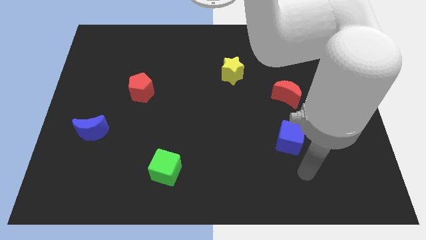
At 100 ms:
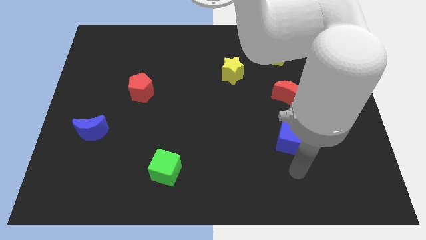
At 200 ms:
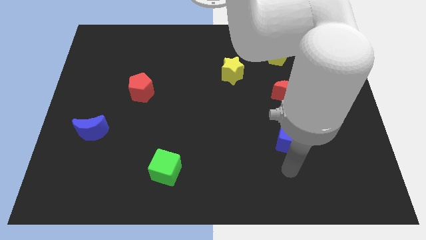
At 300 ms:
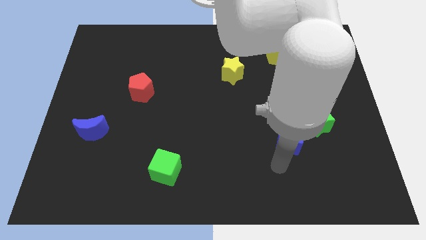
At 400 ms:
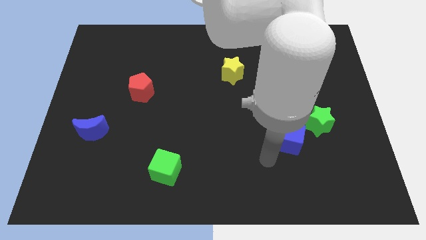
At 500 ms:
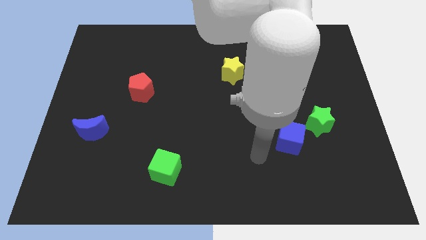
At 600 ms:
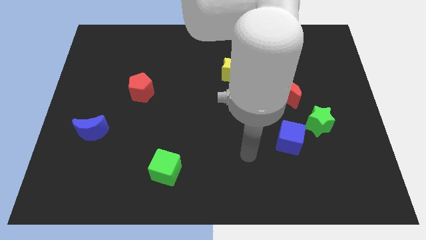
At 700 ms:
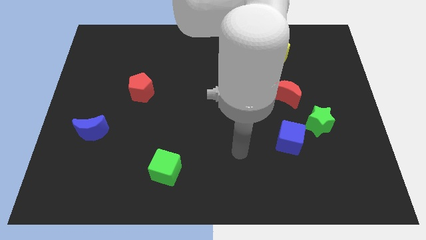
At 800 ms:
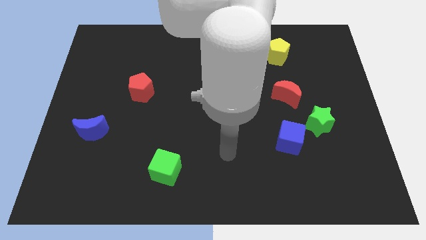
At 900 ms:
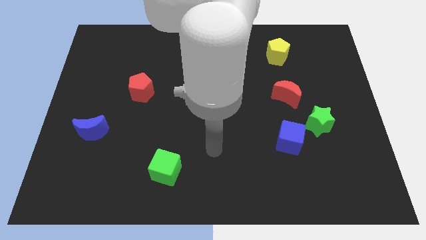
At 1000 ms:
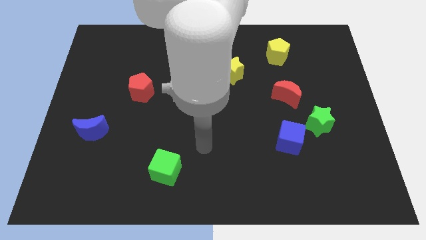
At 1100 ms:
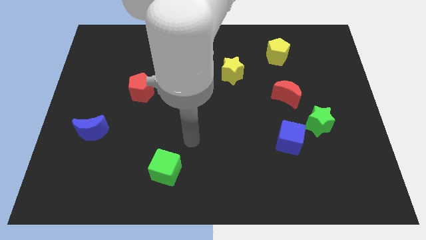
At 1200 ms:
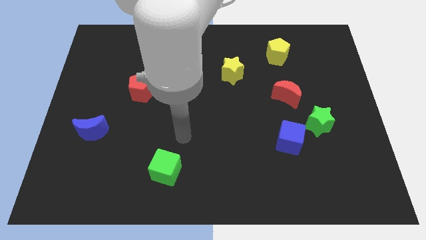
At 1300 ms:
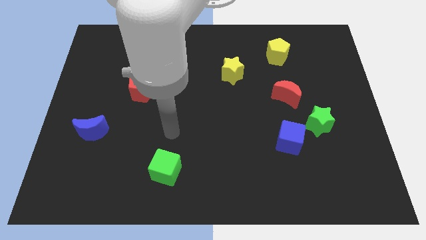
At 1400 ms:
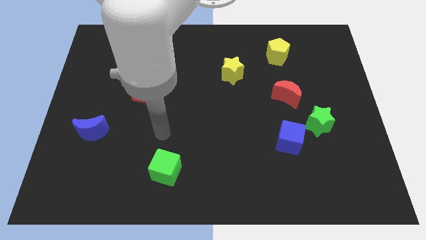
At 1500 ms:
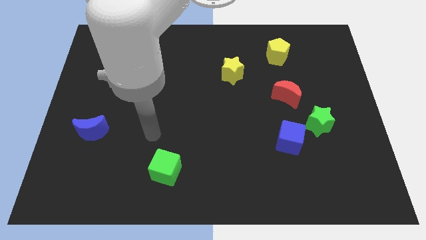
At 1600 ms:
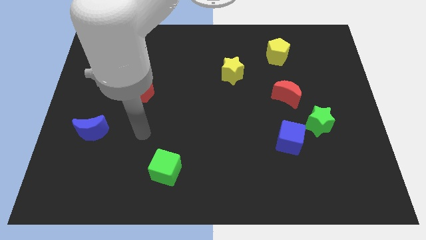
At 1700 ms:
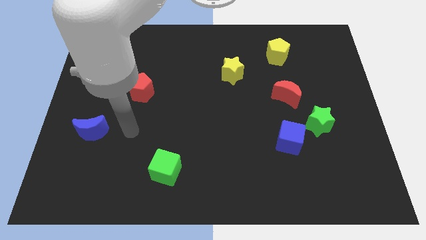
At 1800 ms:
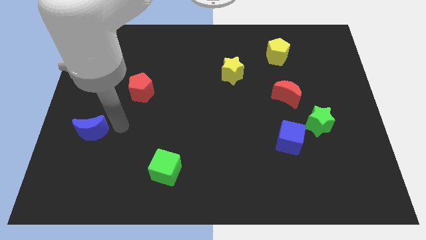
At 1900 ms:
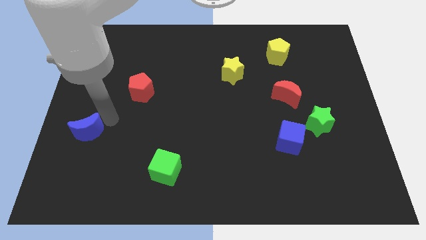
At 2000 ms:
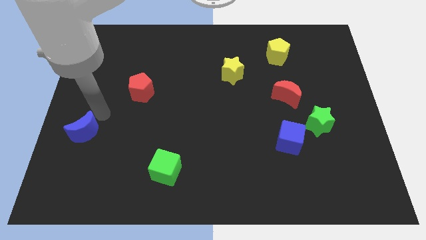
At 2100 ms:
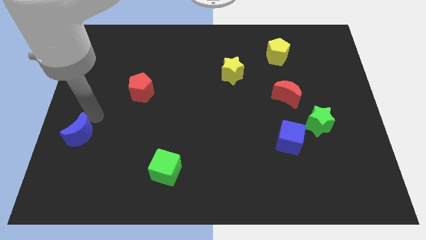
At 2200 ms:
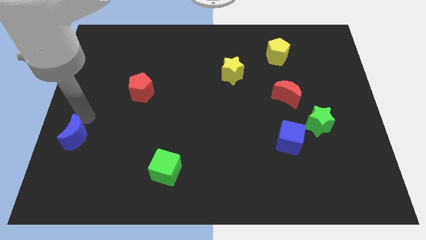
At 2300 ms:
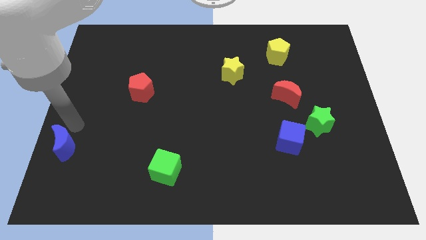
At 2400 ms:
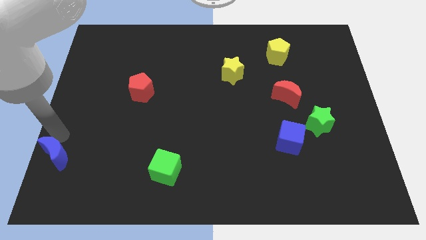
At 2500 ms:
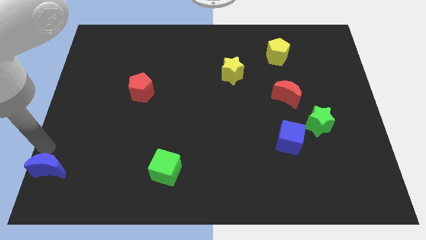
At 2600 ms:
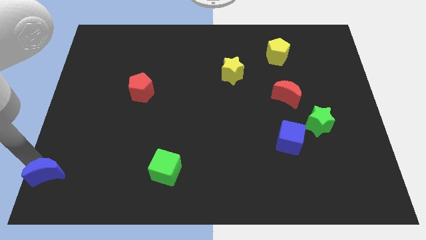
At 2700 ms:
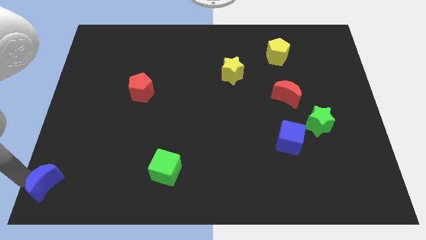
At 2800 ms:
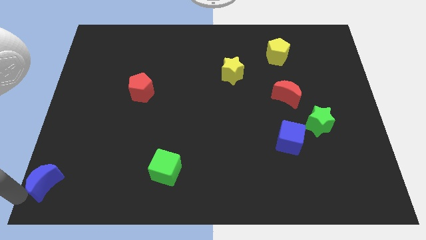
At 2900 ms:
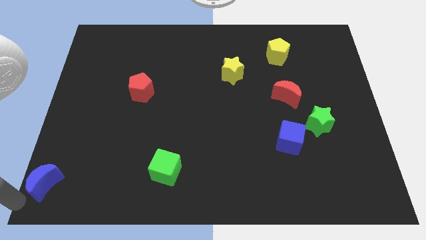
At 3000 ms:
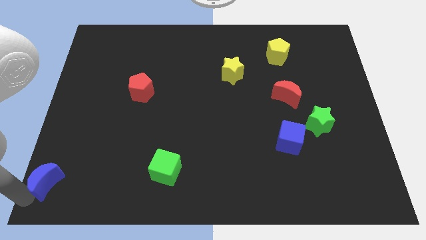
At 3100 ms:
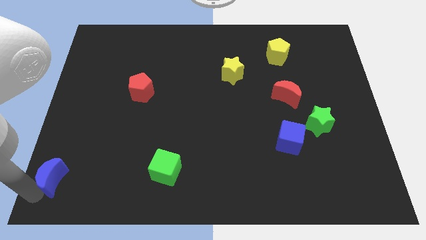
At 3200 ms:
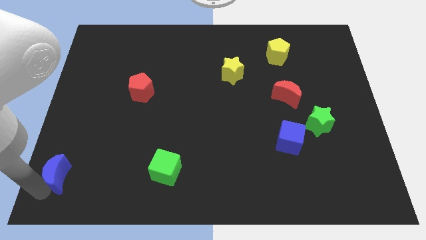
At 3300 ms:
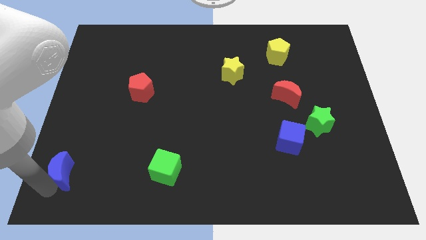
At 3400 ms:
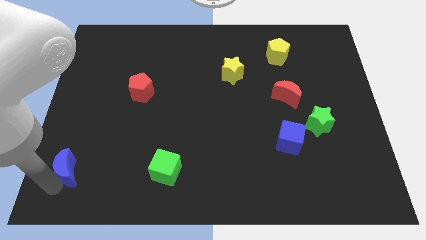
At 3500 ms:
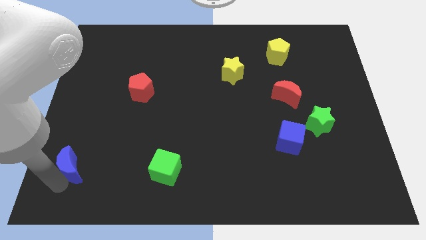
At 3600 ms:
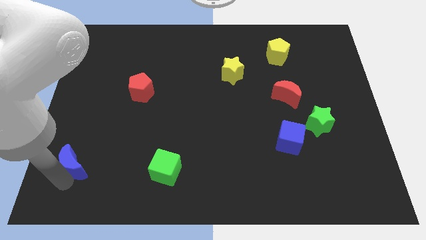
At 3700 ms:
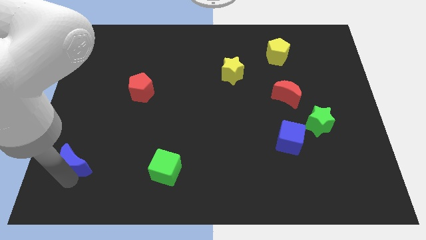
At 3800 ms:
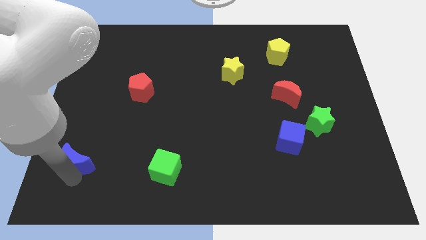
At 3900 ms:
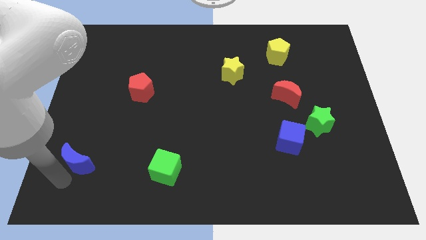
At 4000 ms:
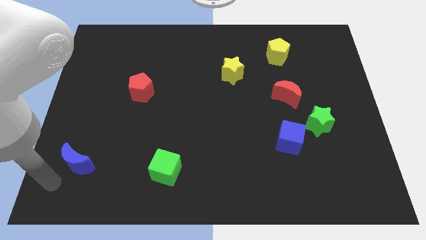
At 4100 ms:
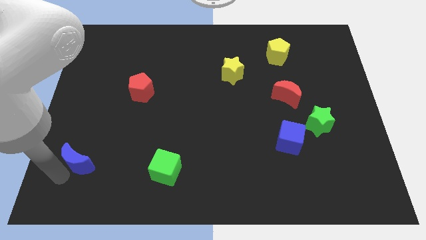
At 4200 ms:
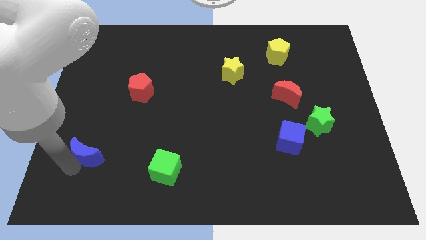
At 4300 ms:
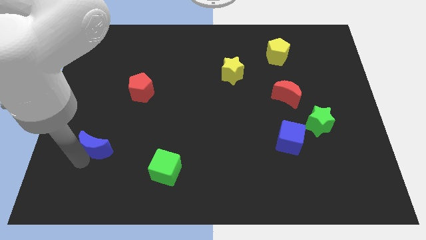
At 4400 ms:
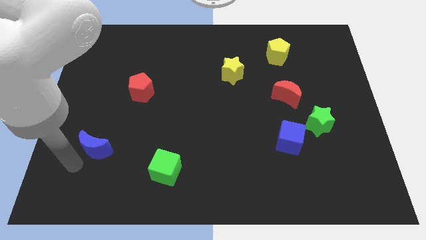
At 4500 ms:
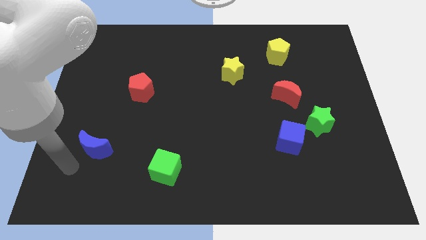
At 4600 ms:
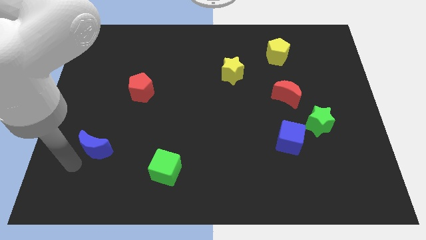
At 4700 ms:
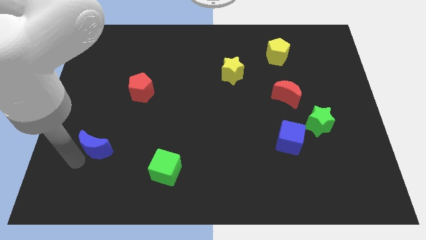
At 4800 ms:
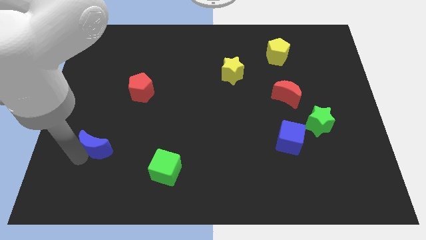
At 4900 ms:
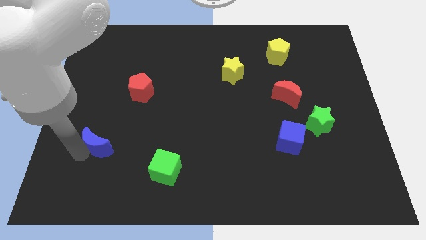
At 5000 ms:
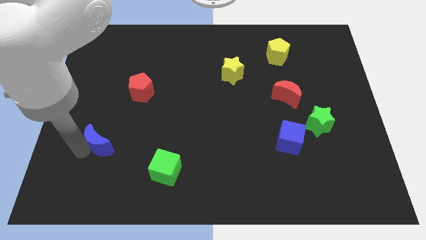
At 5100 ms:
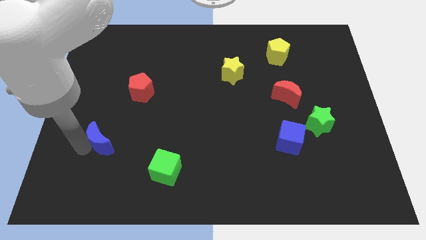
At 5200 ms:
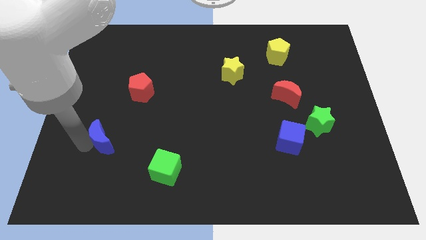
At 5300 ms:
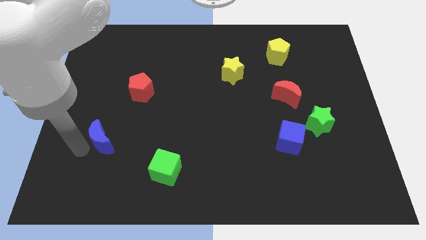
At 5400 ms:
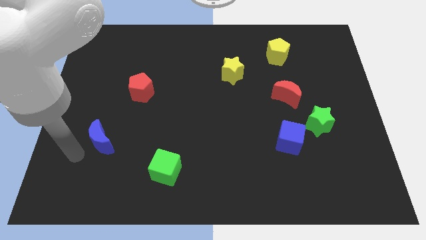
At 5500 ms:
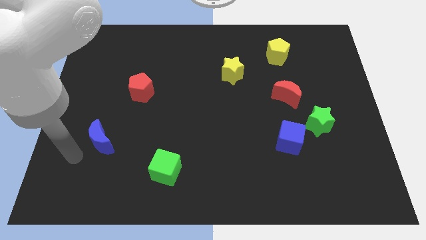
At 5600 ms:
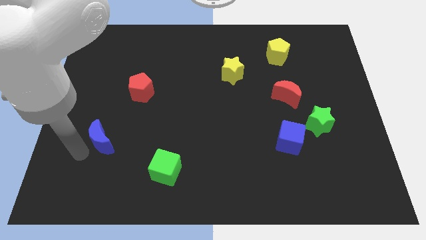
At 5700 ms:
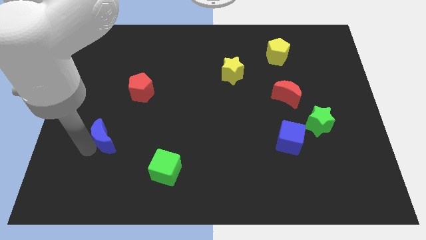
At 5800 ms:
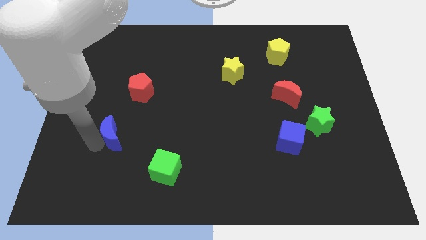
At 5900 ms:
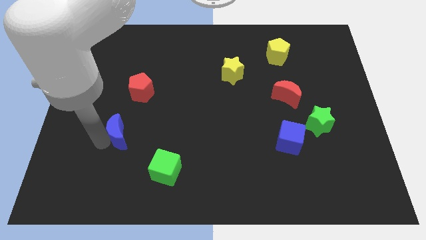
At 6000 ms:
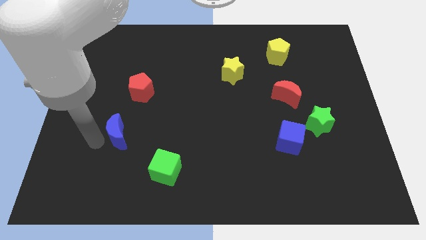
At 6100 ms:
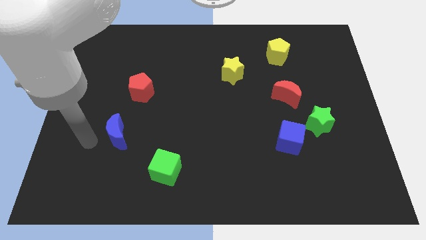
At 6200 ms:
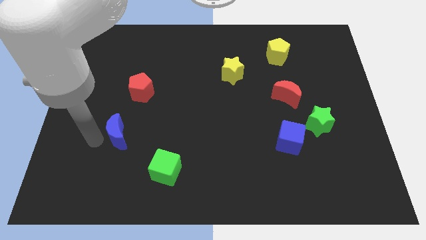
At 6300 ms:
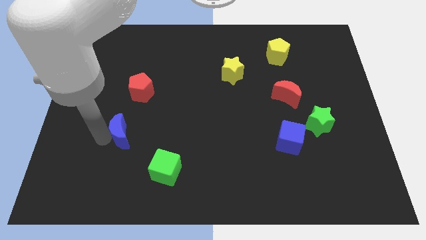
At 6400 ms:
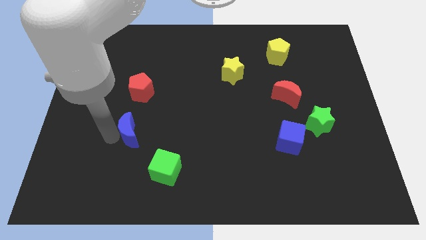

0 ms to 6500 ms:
slightly push the blue moon right

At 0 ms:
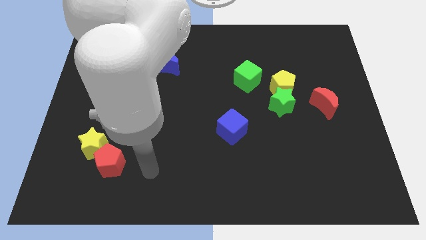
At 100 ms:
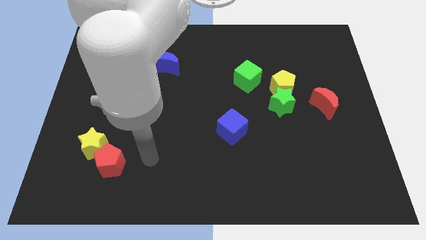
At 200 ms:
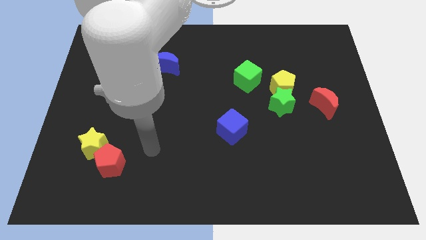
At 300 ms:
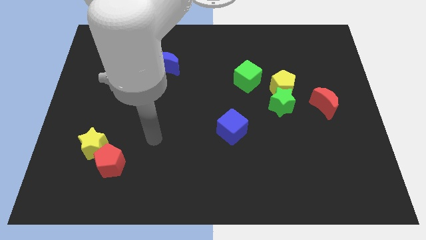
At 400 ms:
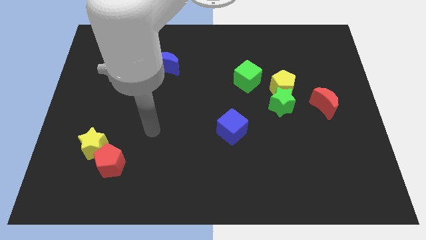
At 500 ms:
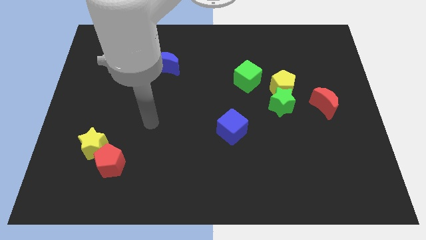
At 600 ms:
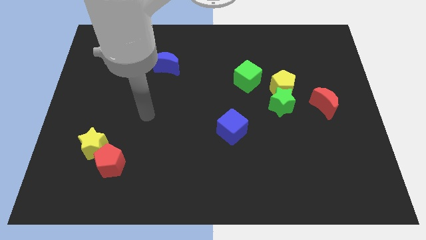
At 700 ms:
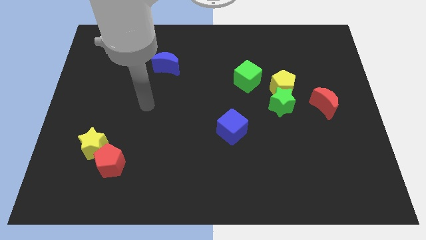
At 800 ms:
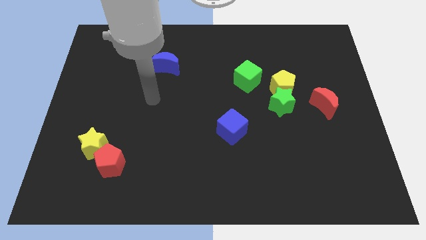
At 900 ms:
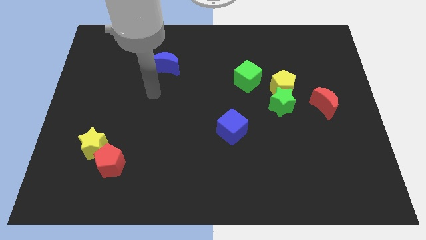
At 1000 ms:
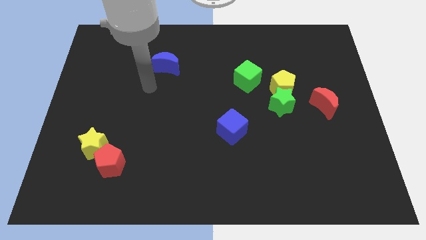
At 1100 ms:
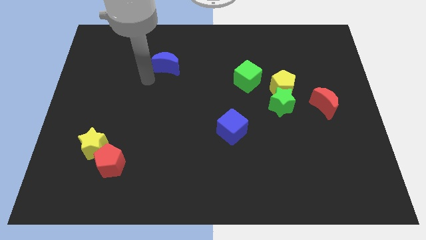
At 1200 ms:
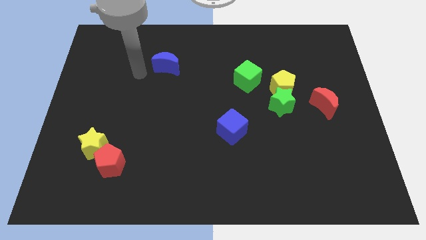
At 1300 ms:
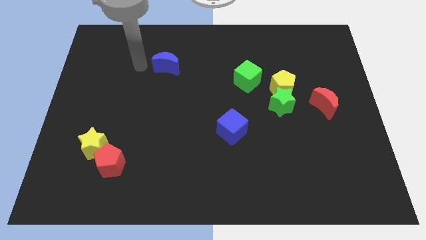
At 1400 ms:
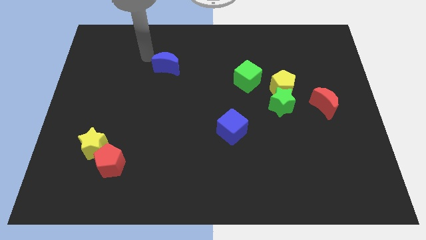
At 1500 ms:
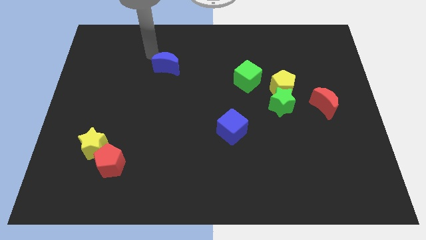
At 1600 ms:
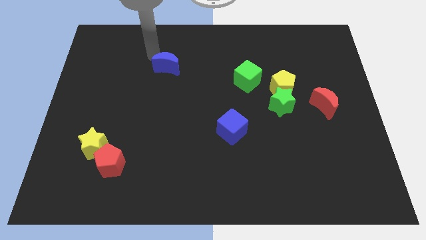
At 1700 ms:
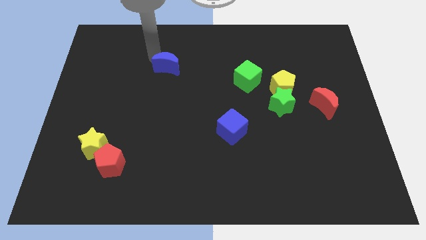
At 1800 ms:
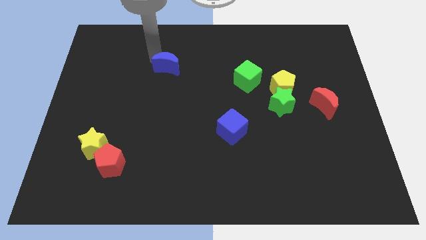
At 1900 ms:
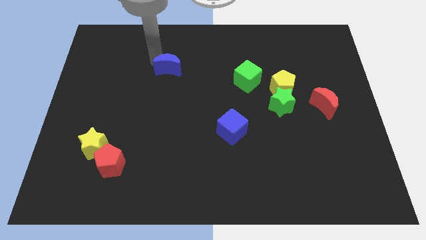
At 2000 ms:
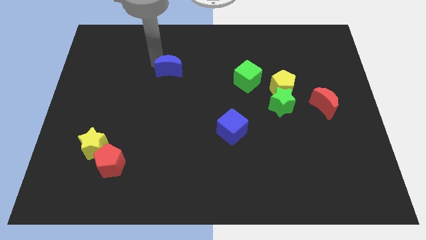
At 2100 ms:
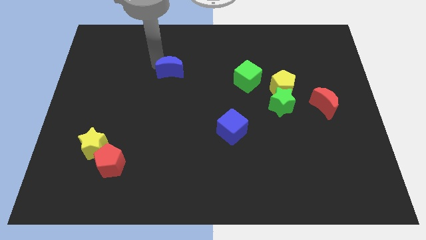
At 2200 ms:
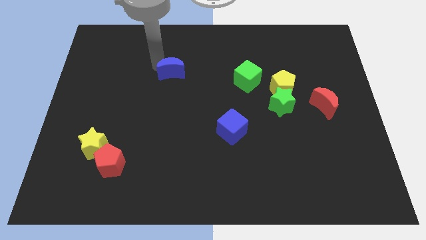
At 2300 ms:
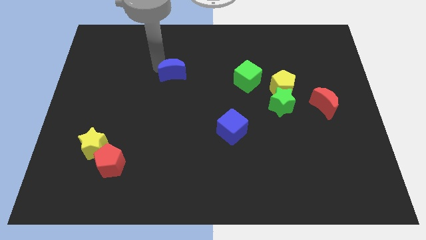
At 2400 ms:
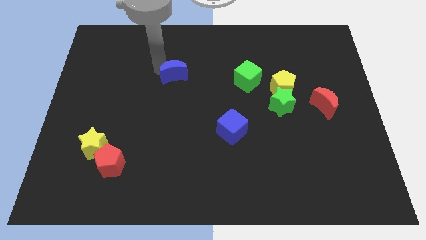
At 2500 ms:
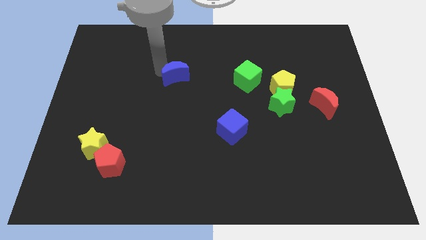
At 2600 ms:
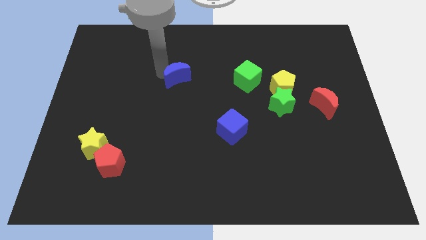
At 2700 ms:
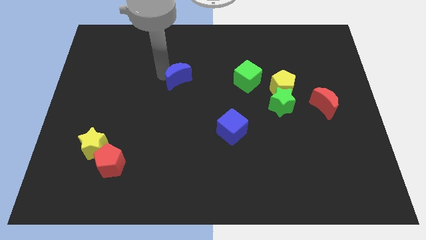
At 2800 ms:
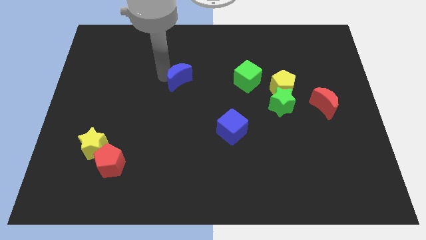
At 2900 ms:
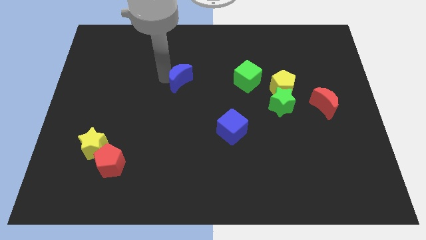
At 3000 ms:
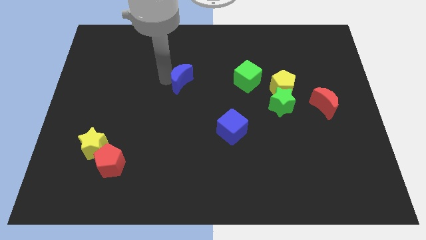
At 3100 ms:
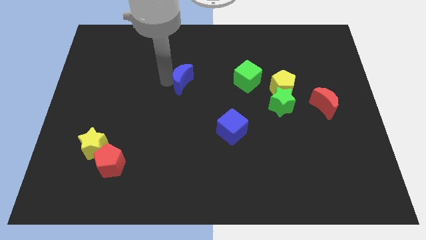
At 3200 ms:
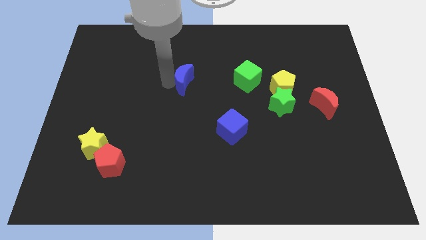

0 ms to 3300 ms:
move the blue moon slightly down and then to the right
